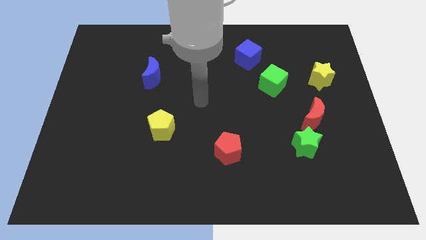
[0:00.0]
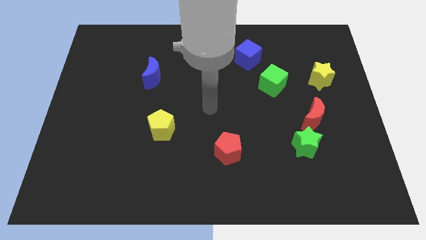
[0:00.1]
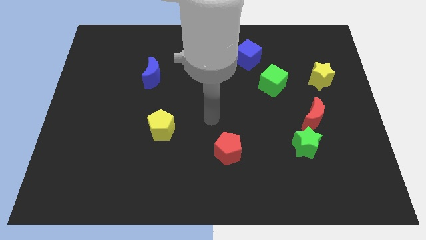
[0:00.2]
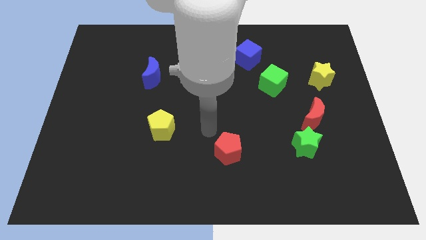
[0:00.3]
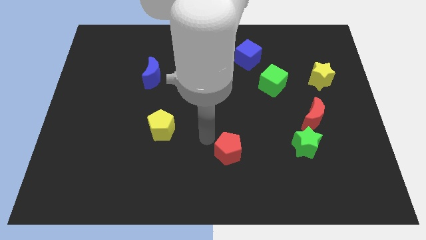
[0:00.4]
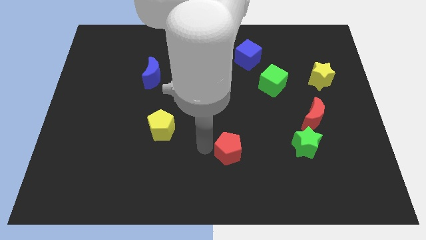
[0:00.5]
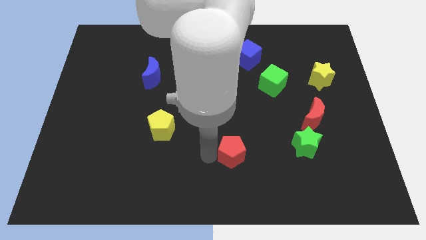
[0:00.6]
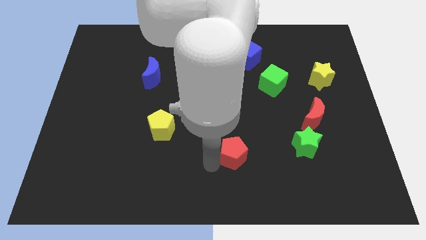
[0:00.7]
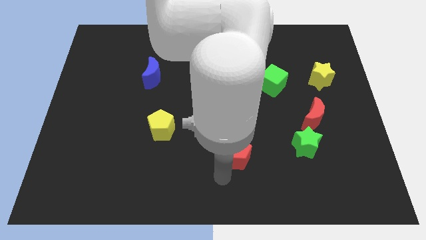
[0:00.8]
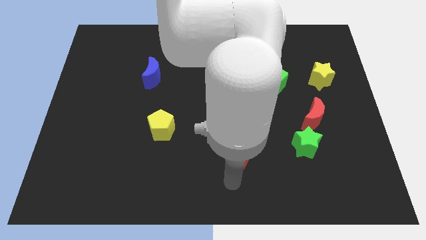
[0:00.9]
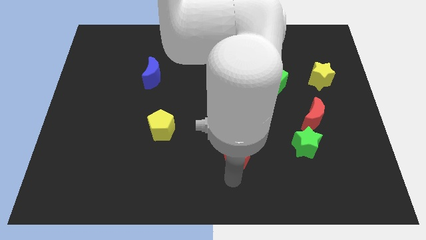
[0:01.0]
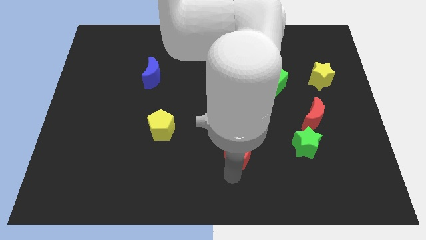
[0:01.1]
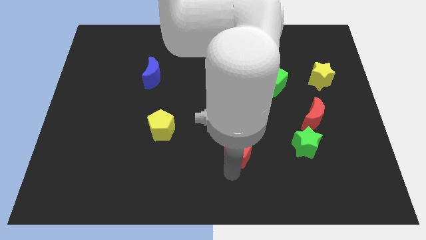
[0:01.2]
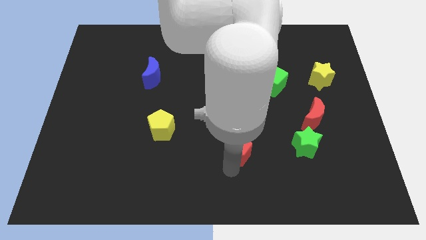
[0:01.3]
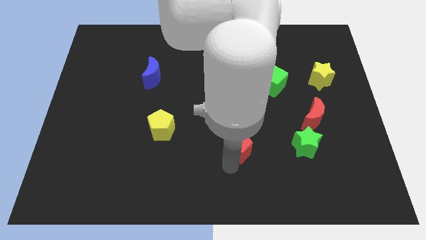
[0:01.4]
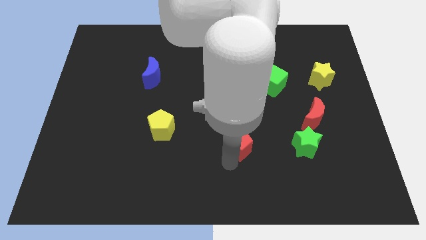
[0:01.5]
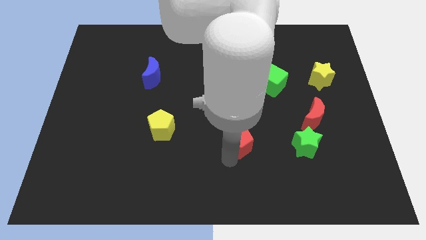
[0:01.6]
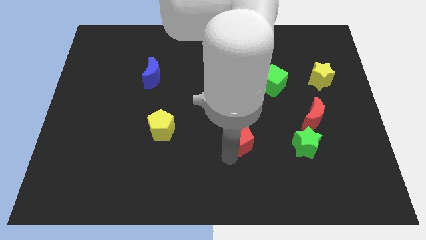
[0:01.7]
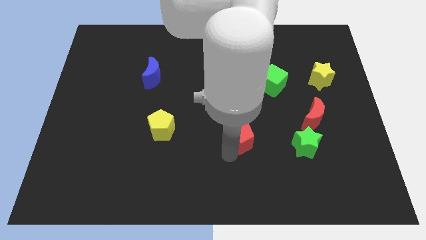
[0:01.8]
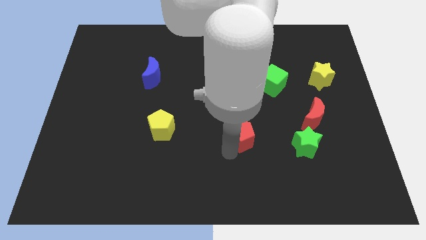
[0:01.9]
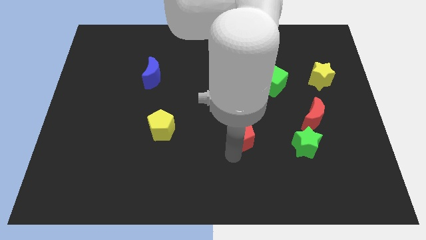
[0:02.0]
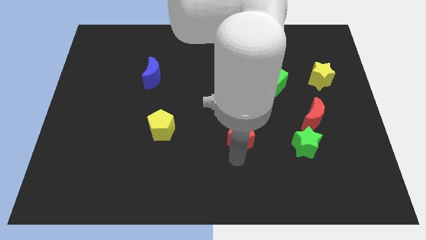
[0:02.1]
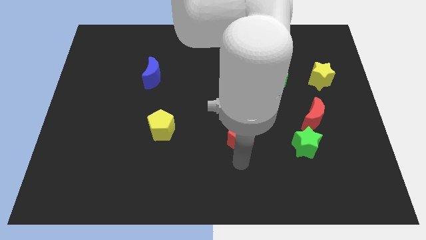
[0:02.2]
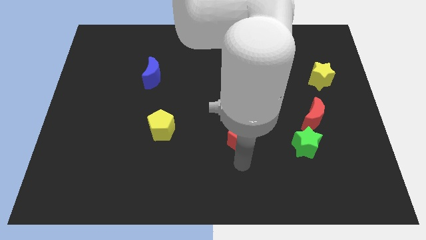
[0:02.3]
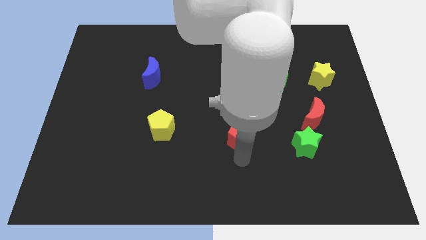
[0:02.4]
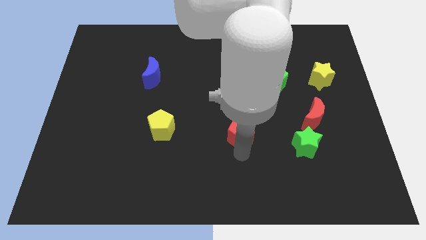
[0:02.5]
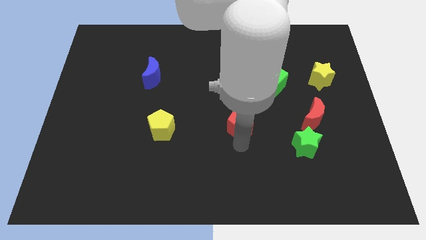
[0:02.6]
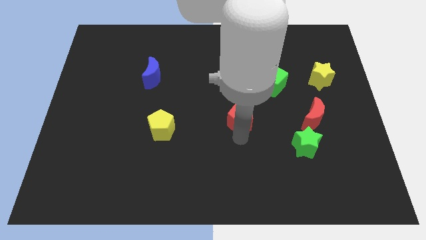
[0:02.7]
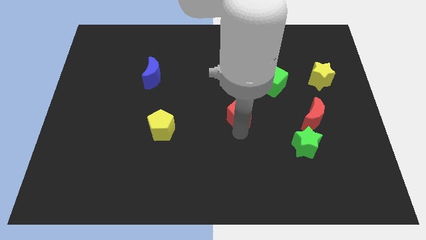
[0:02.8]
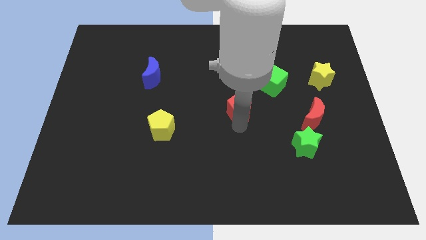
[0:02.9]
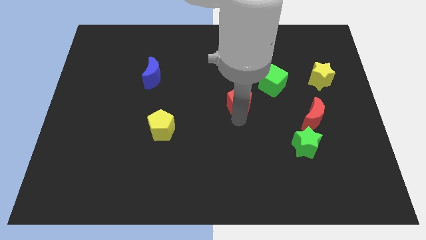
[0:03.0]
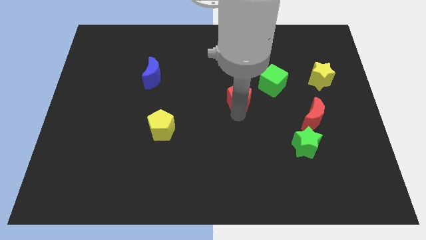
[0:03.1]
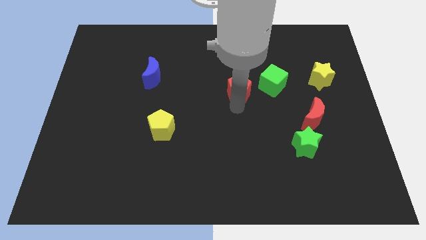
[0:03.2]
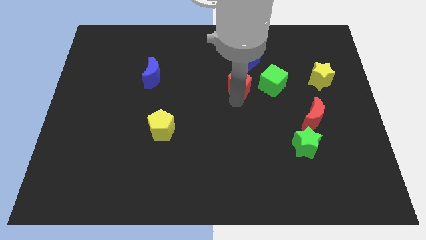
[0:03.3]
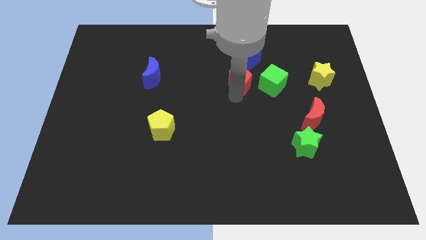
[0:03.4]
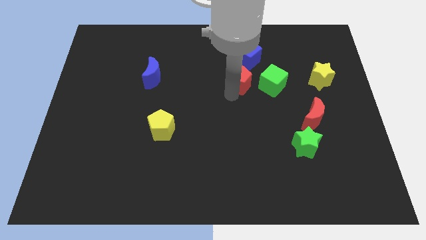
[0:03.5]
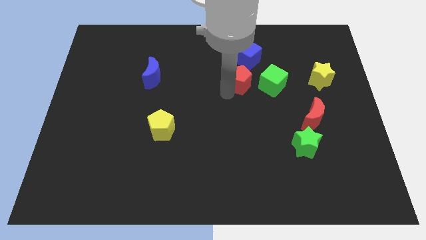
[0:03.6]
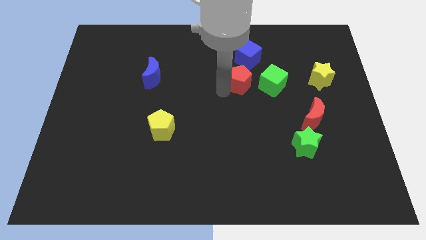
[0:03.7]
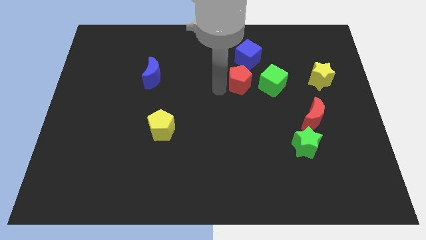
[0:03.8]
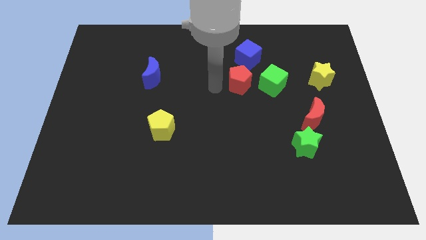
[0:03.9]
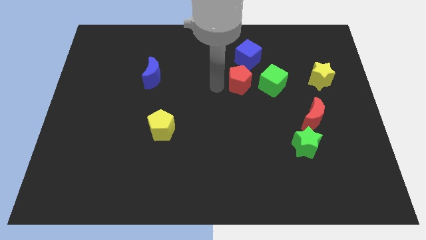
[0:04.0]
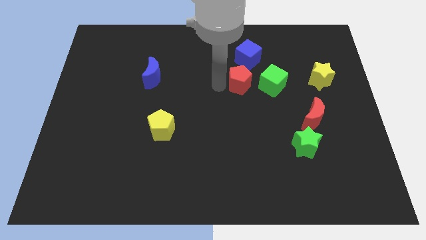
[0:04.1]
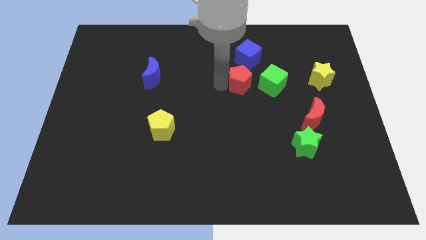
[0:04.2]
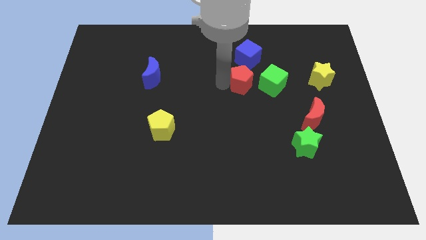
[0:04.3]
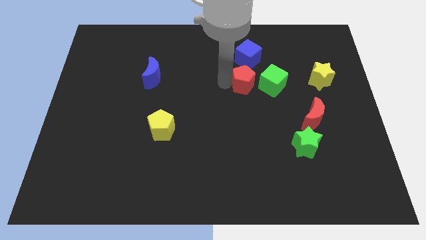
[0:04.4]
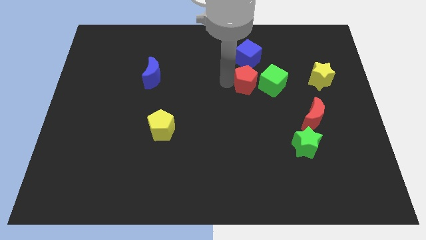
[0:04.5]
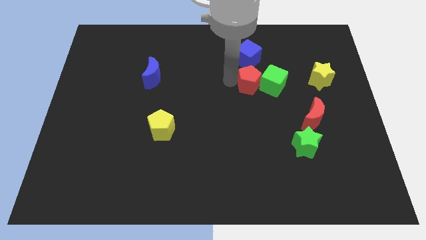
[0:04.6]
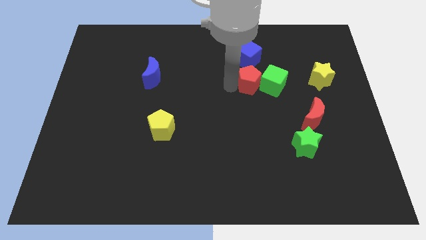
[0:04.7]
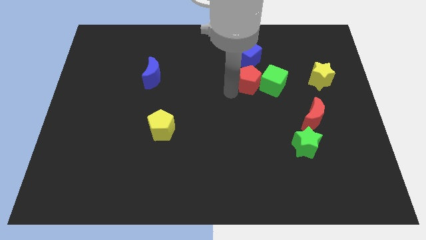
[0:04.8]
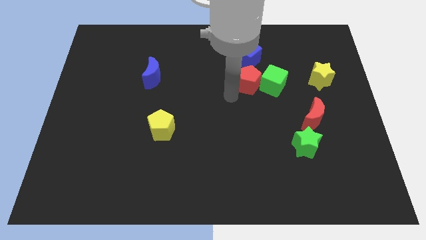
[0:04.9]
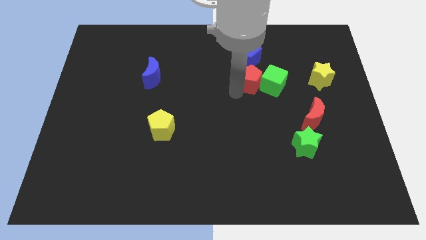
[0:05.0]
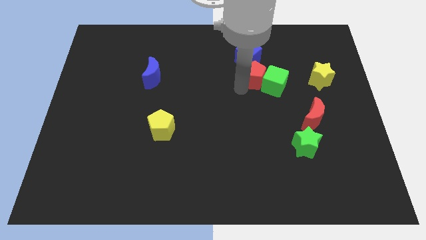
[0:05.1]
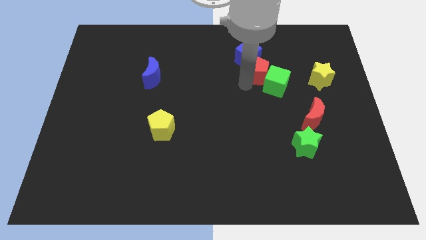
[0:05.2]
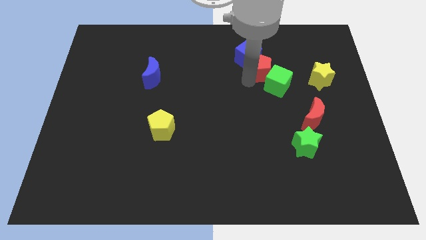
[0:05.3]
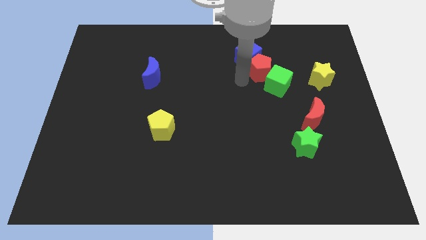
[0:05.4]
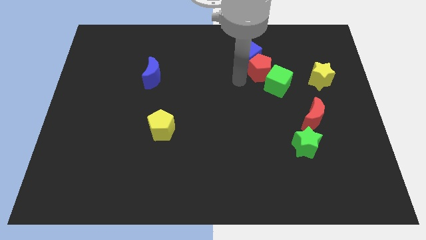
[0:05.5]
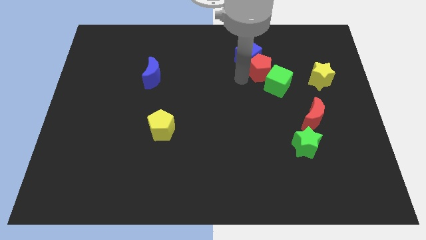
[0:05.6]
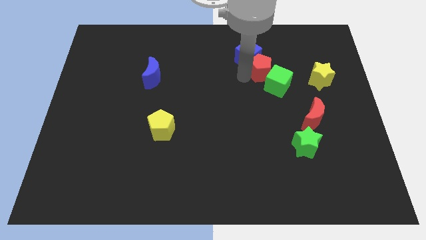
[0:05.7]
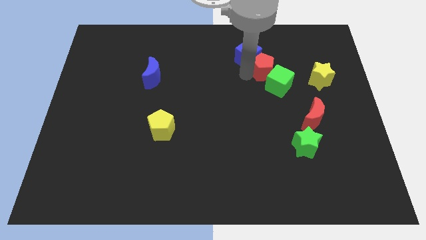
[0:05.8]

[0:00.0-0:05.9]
slide the red pentagon just right of the blue cube

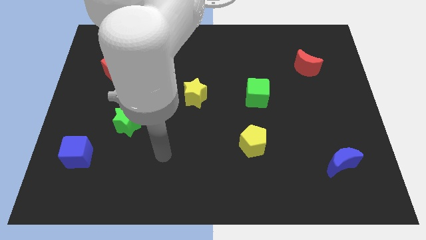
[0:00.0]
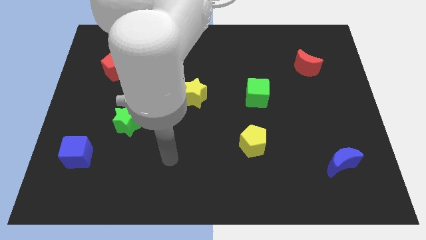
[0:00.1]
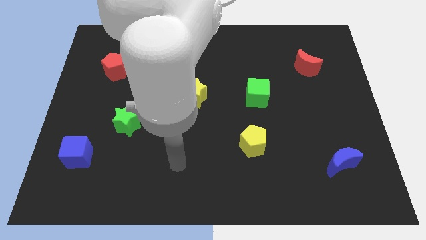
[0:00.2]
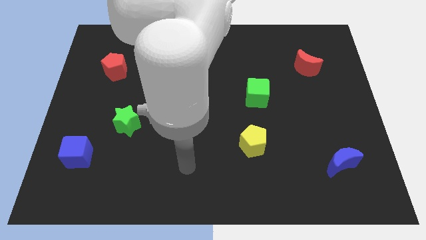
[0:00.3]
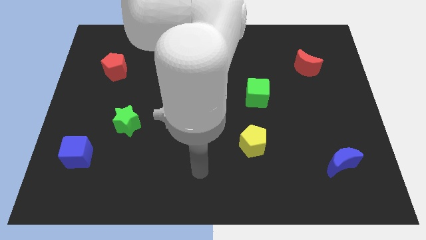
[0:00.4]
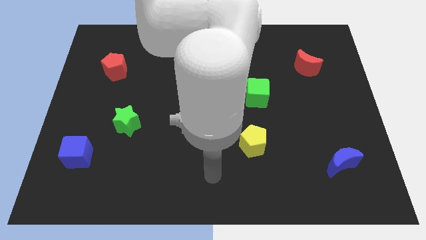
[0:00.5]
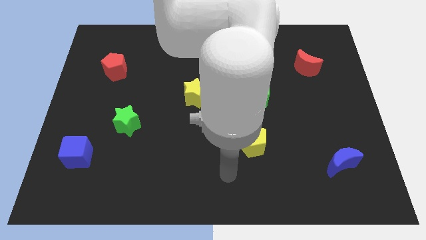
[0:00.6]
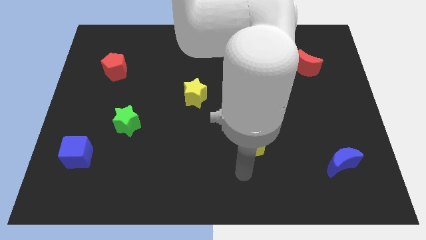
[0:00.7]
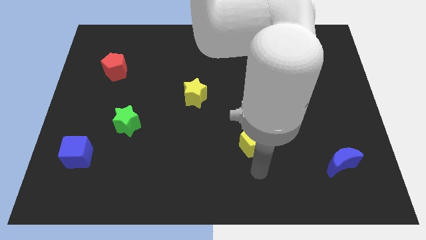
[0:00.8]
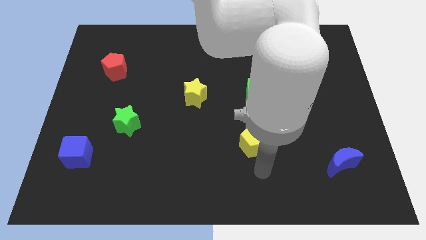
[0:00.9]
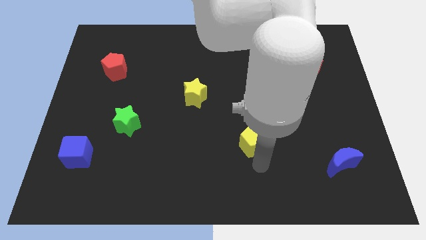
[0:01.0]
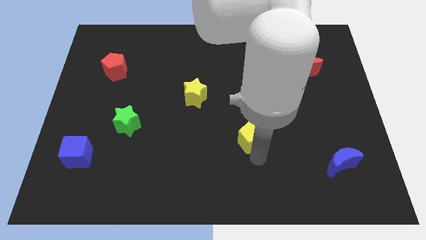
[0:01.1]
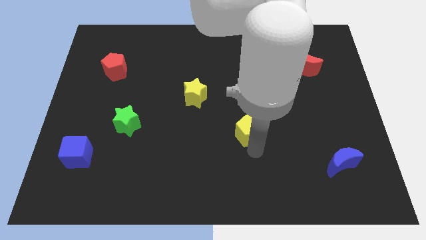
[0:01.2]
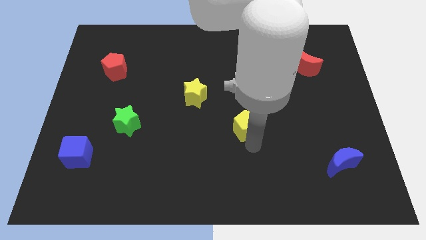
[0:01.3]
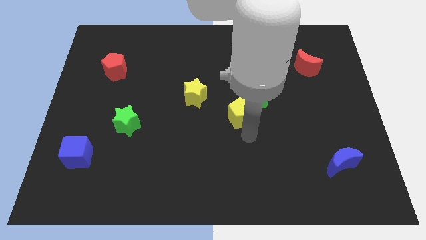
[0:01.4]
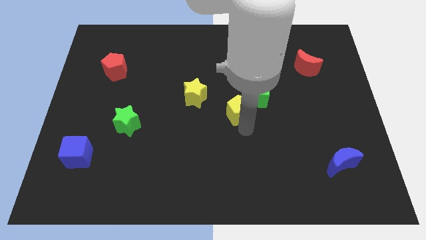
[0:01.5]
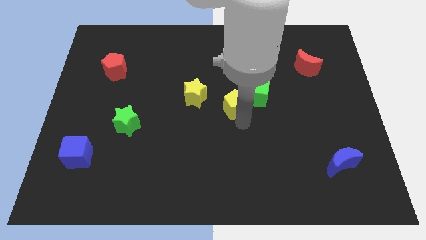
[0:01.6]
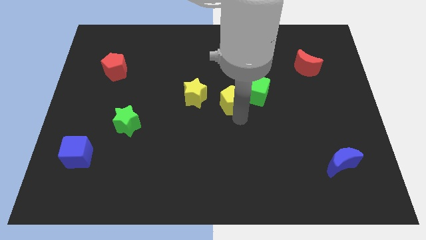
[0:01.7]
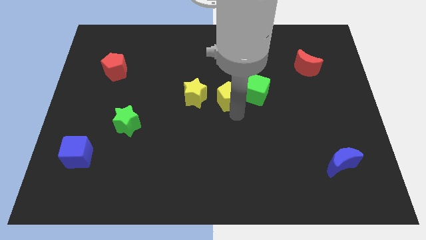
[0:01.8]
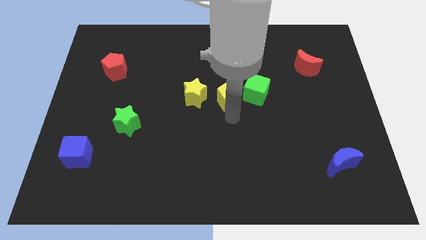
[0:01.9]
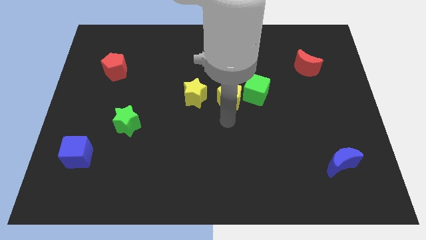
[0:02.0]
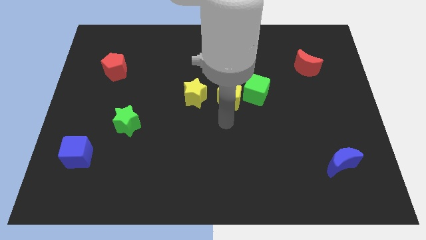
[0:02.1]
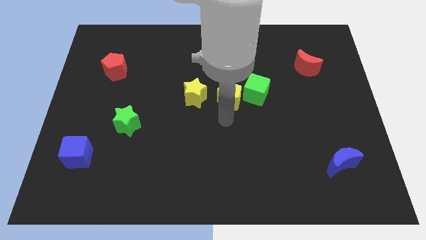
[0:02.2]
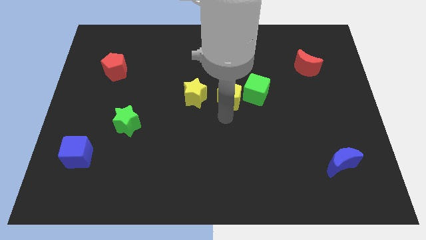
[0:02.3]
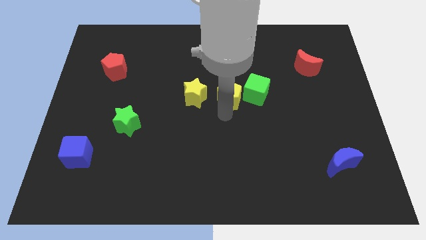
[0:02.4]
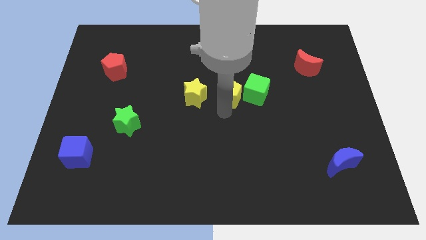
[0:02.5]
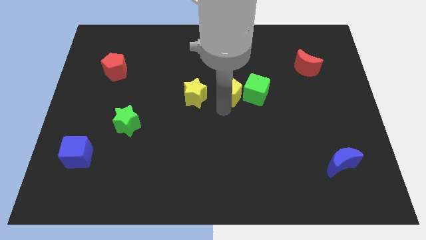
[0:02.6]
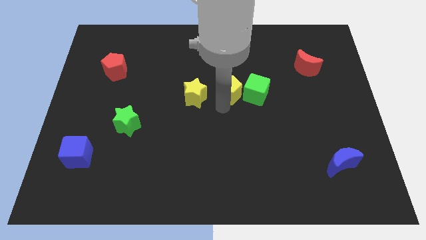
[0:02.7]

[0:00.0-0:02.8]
move the yellow pentagon to the top left of the green cube
